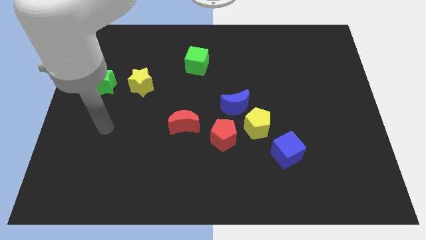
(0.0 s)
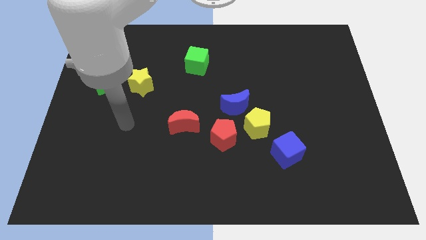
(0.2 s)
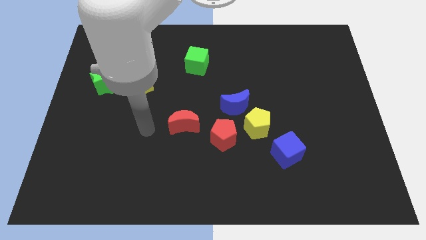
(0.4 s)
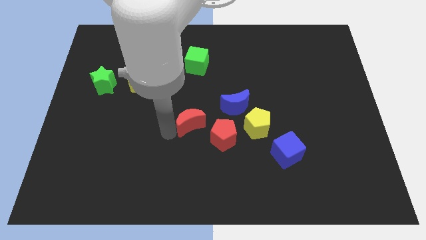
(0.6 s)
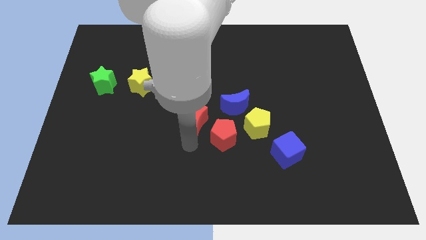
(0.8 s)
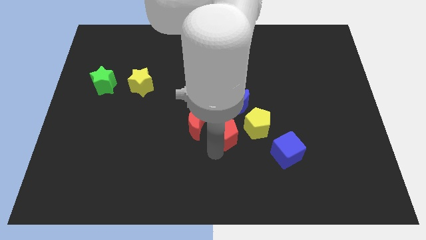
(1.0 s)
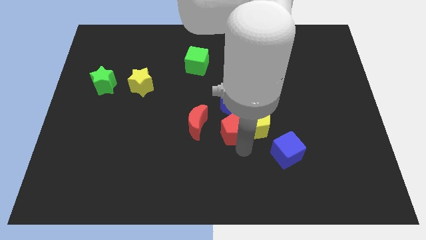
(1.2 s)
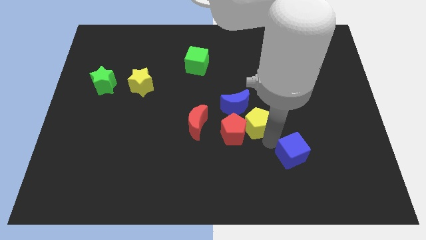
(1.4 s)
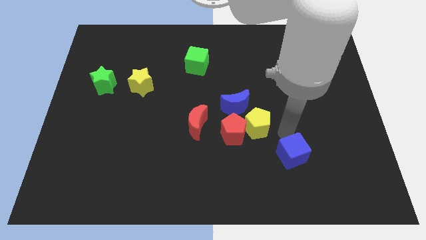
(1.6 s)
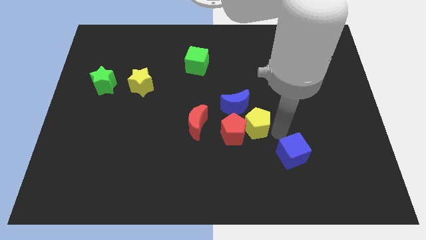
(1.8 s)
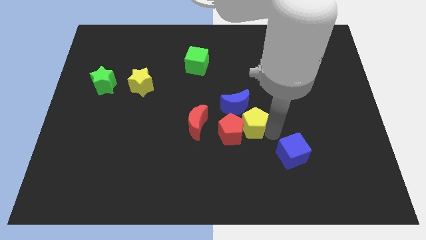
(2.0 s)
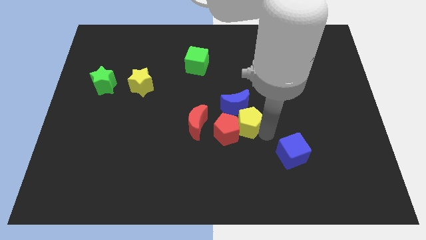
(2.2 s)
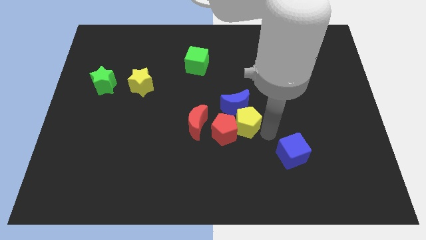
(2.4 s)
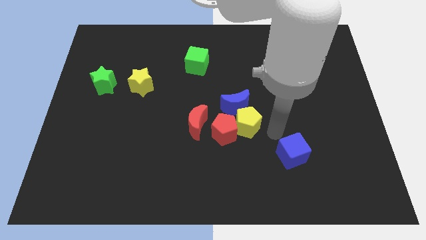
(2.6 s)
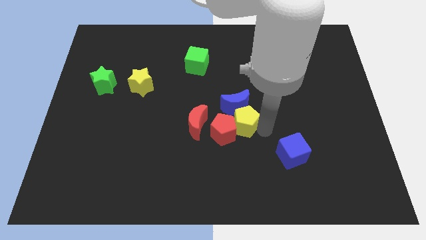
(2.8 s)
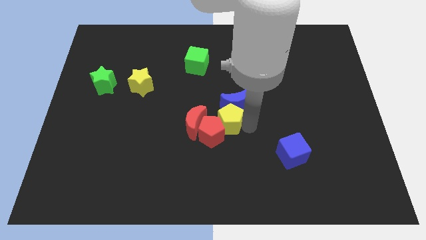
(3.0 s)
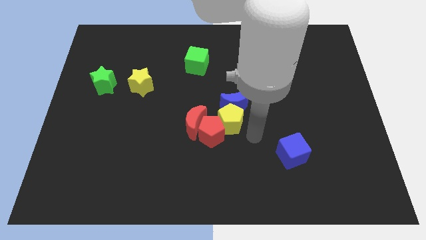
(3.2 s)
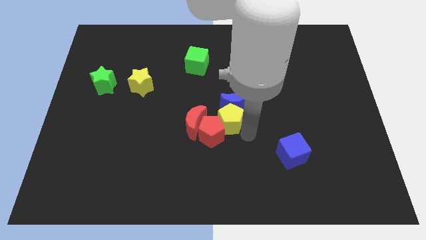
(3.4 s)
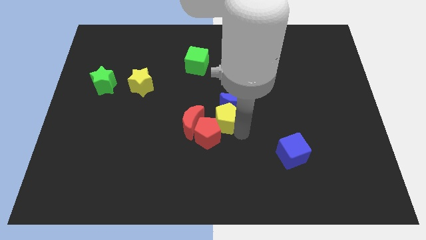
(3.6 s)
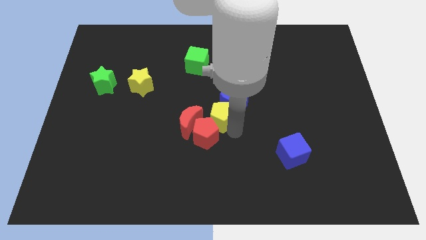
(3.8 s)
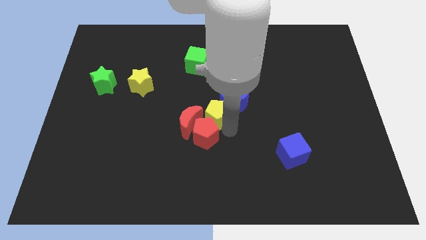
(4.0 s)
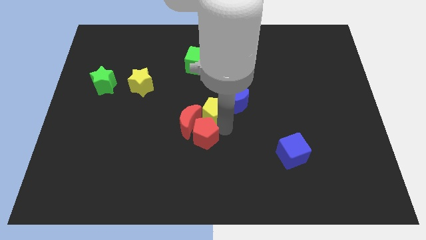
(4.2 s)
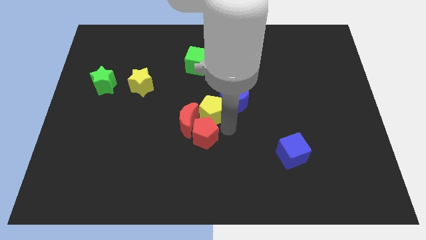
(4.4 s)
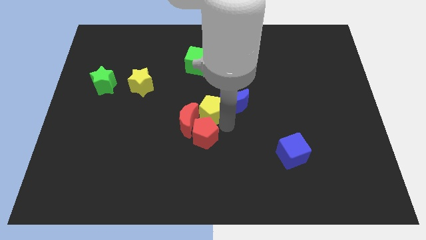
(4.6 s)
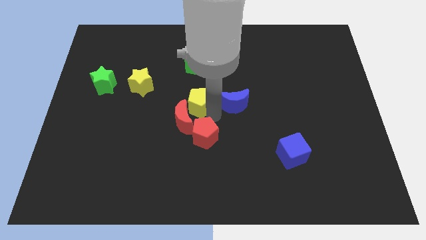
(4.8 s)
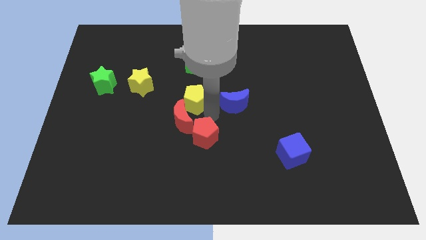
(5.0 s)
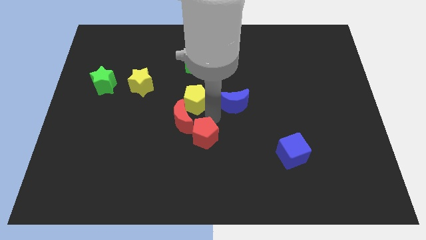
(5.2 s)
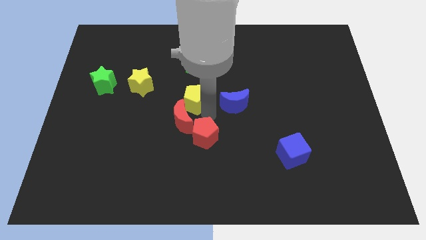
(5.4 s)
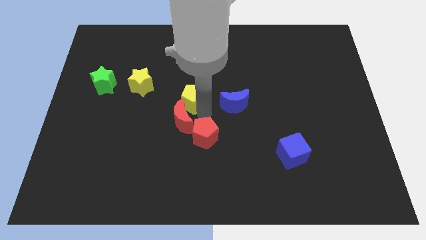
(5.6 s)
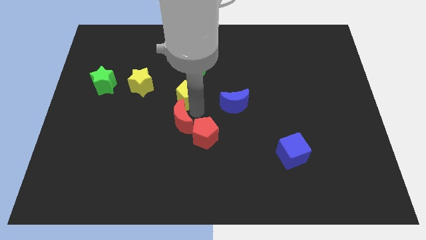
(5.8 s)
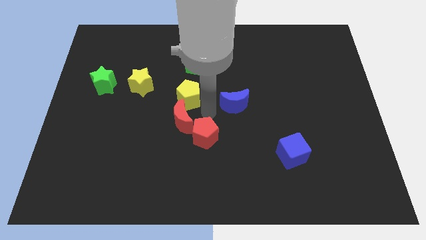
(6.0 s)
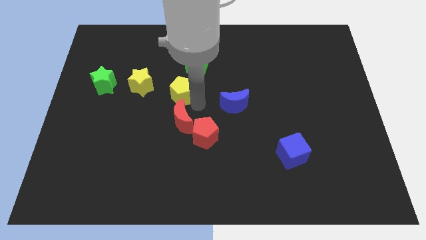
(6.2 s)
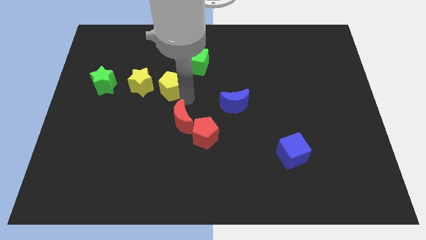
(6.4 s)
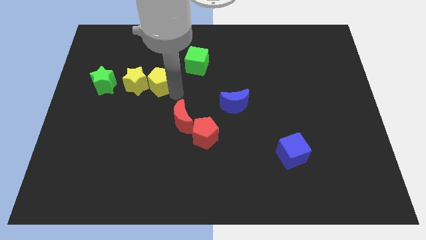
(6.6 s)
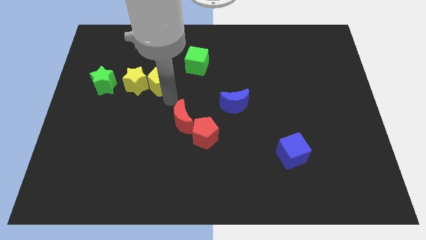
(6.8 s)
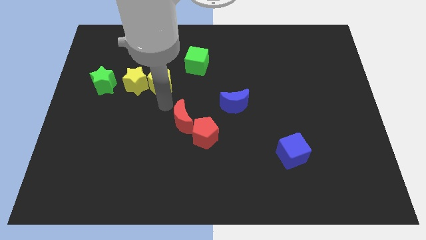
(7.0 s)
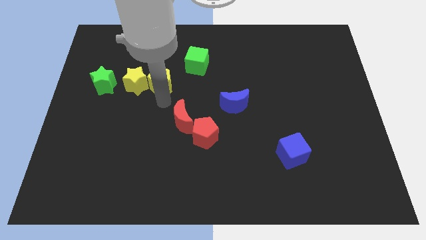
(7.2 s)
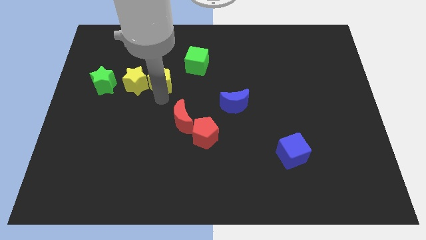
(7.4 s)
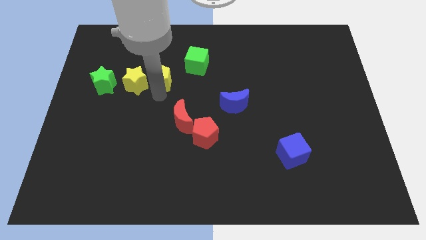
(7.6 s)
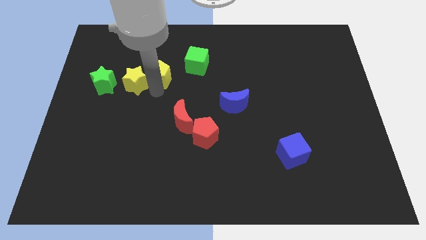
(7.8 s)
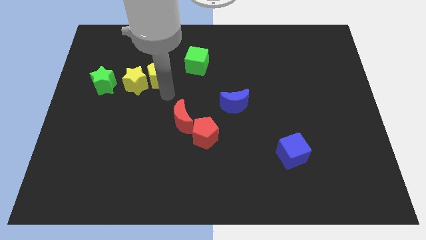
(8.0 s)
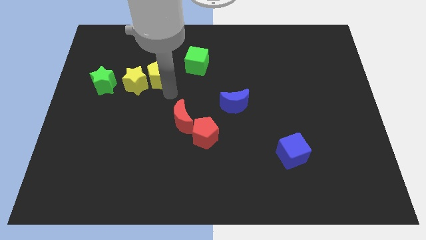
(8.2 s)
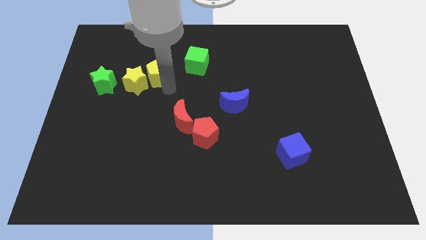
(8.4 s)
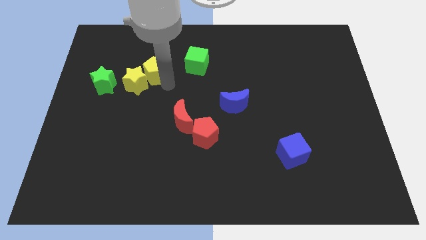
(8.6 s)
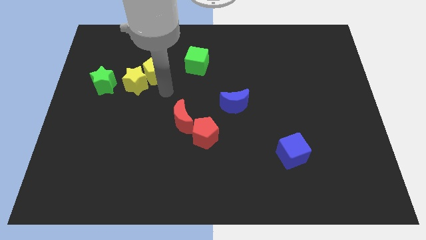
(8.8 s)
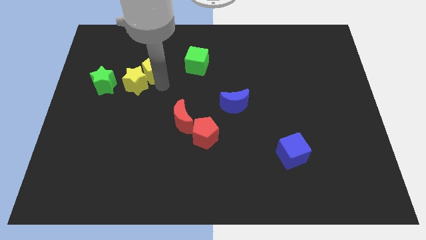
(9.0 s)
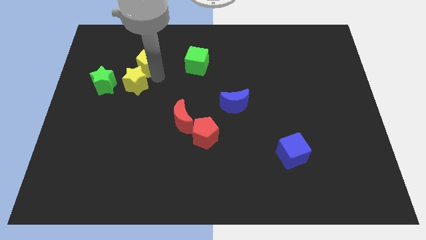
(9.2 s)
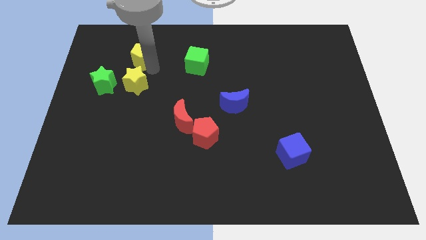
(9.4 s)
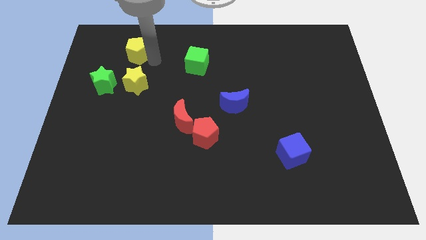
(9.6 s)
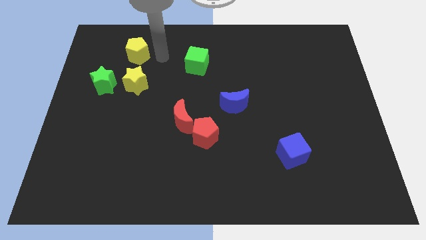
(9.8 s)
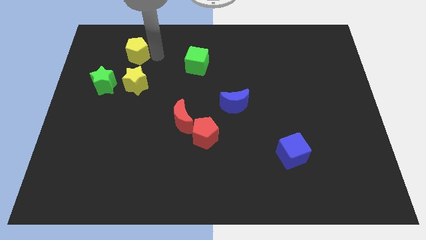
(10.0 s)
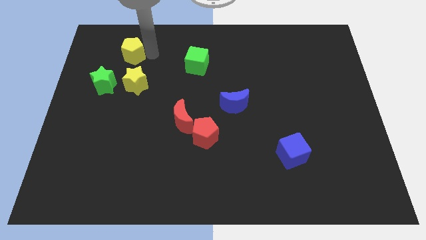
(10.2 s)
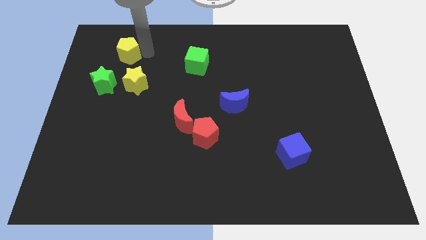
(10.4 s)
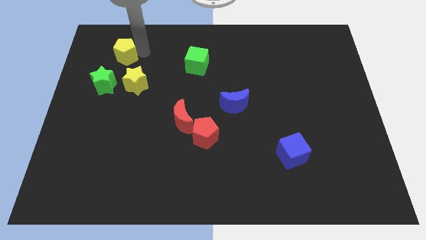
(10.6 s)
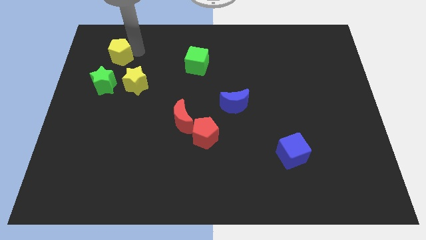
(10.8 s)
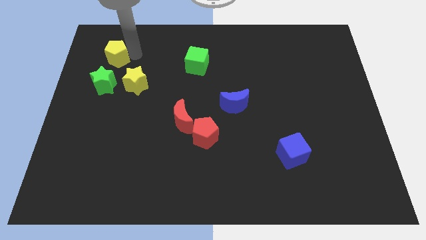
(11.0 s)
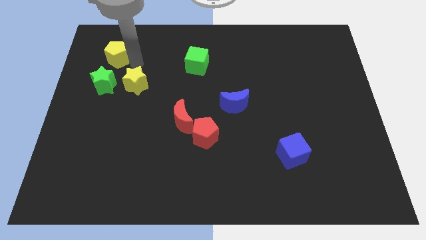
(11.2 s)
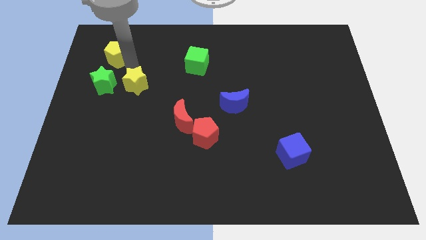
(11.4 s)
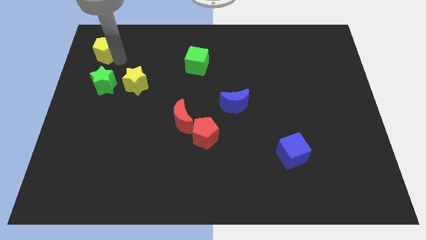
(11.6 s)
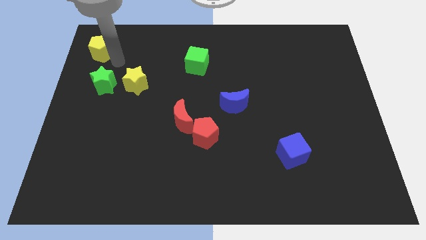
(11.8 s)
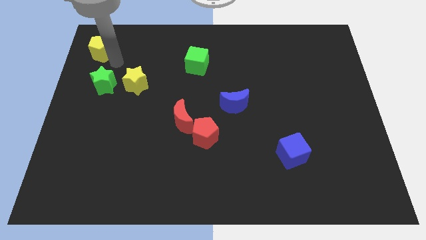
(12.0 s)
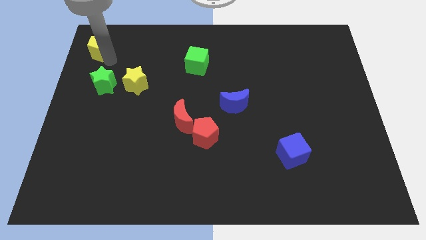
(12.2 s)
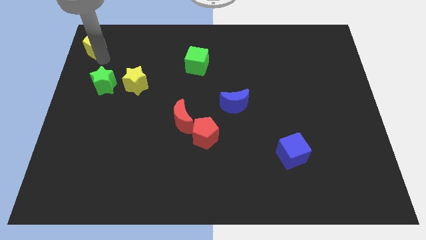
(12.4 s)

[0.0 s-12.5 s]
push the yellow pentagon to the top left corner

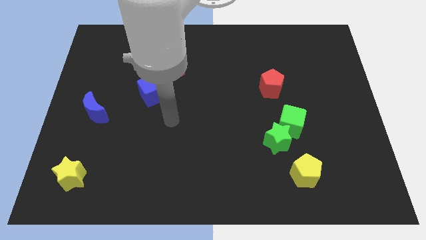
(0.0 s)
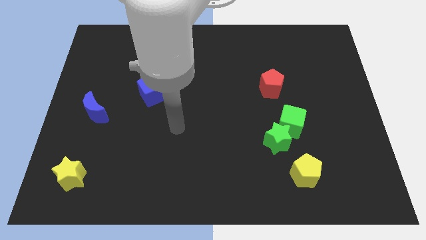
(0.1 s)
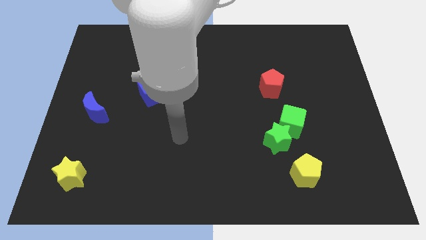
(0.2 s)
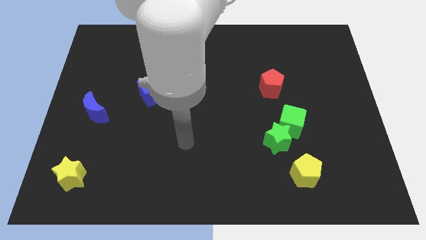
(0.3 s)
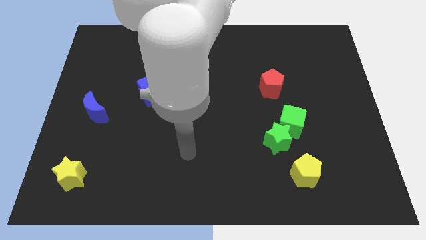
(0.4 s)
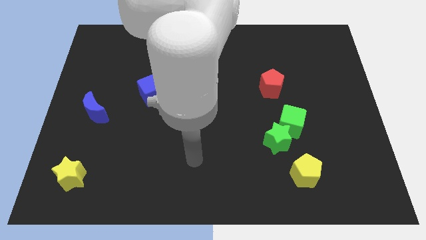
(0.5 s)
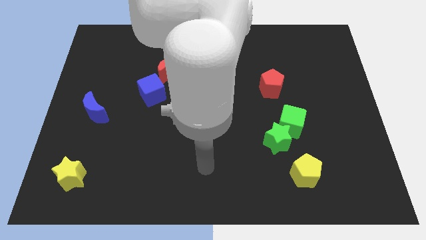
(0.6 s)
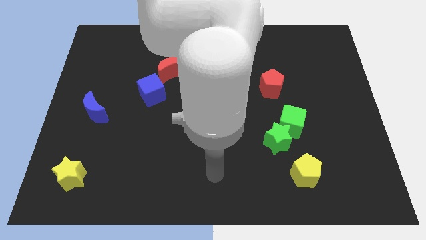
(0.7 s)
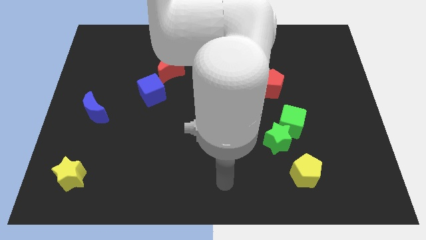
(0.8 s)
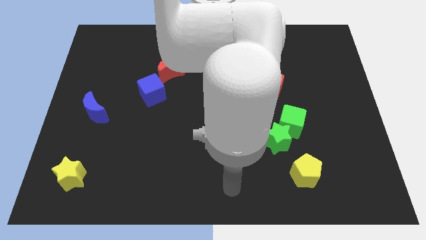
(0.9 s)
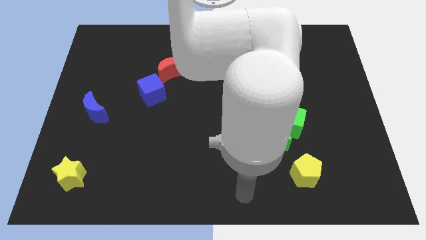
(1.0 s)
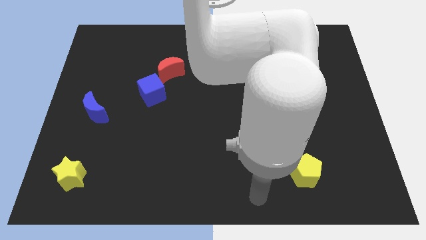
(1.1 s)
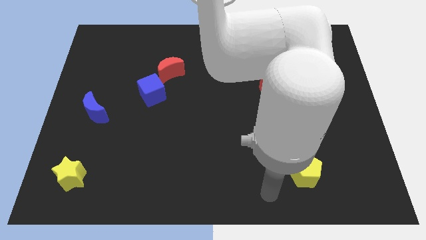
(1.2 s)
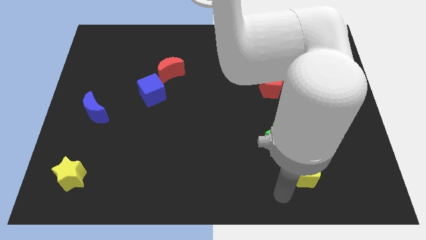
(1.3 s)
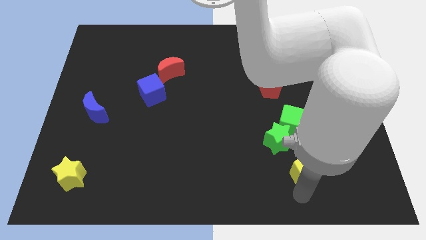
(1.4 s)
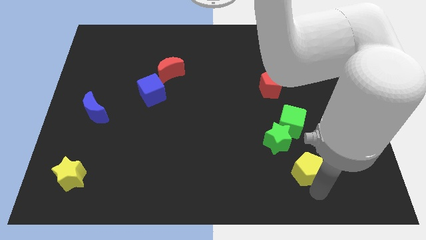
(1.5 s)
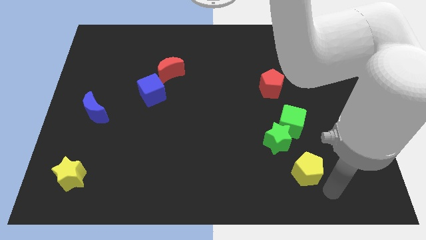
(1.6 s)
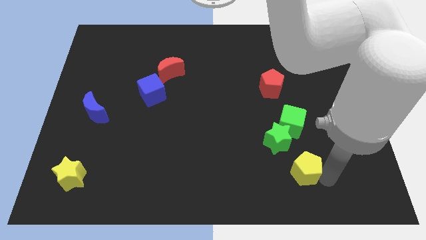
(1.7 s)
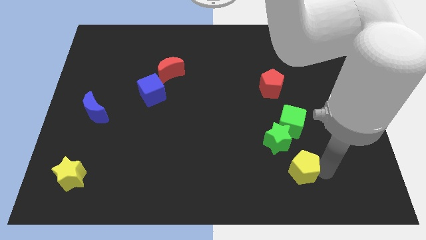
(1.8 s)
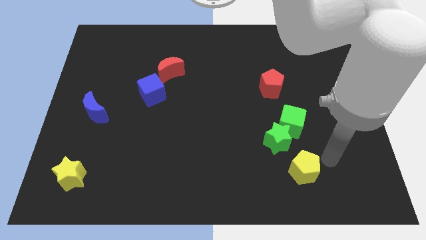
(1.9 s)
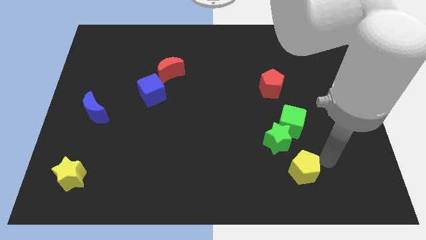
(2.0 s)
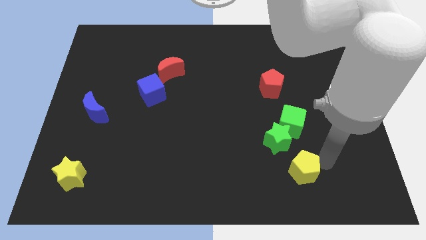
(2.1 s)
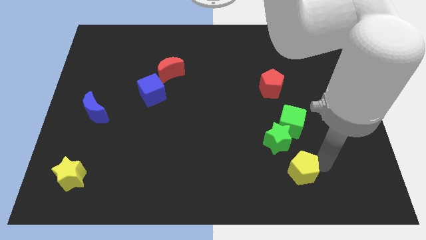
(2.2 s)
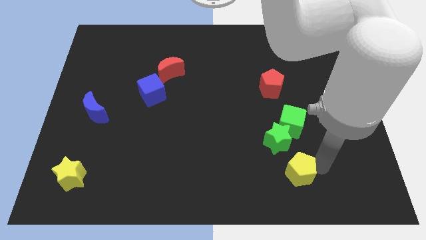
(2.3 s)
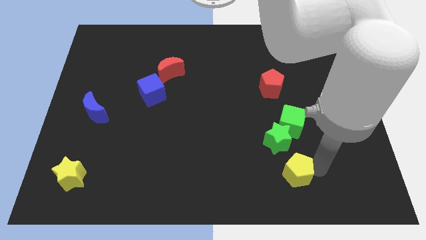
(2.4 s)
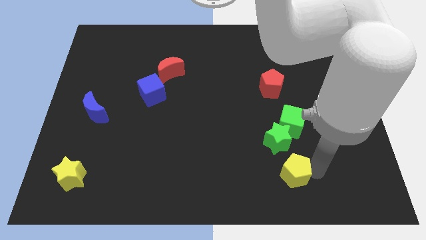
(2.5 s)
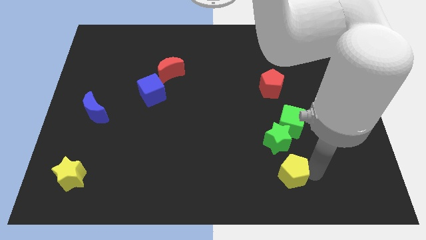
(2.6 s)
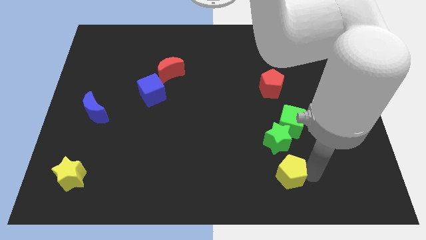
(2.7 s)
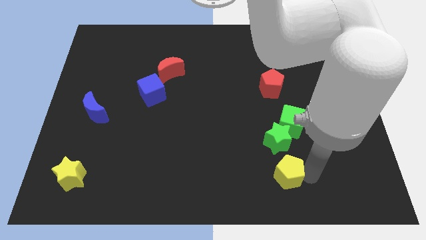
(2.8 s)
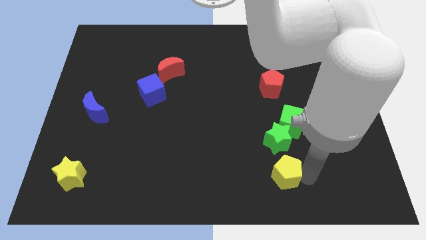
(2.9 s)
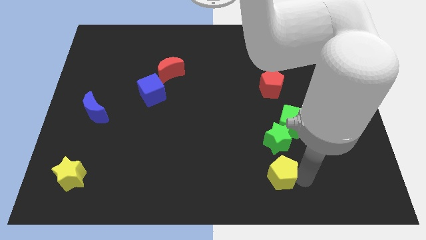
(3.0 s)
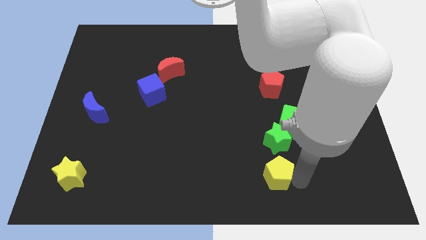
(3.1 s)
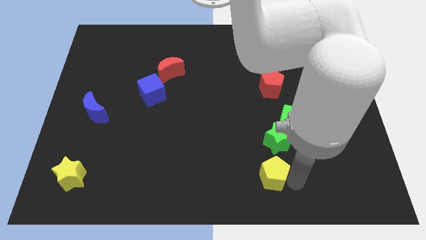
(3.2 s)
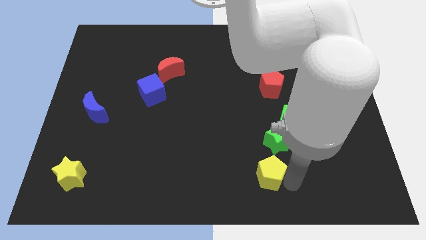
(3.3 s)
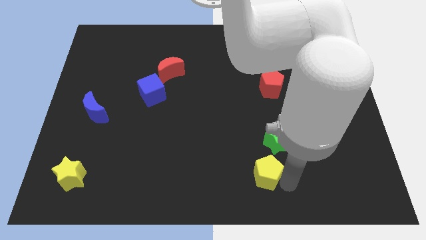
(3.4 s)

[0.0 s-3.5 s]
move the yellow pentagon to the bottom
